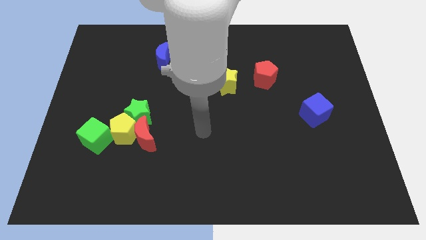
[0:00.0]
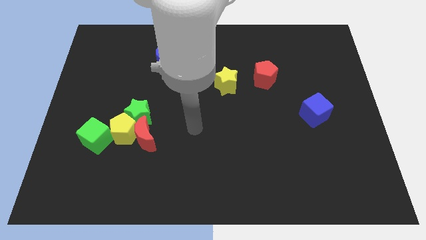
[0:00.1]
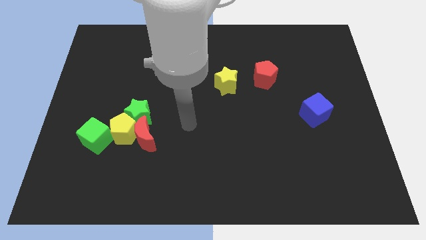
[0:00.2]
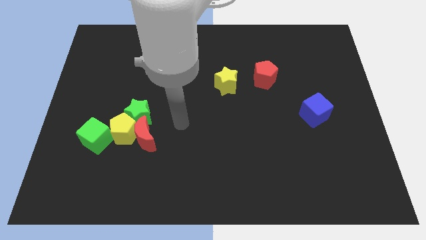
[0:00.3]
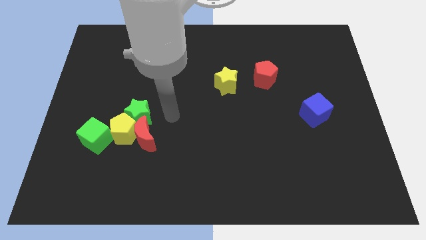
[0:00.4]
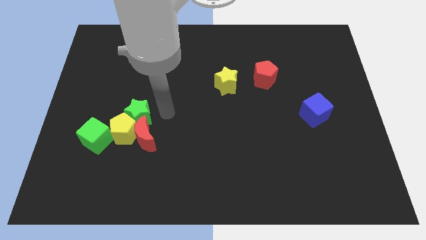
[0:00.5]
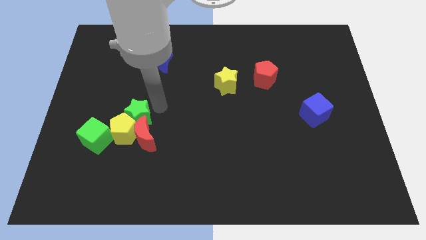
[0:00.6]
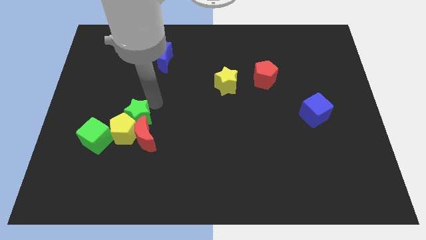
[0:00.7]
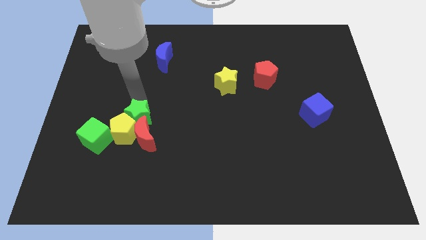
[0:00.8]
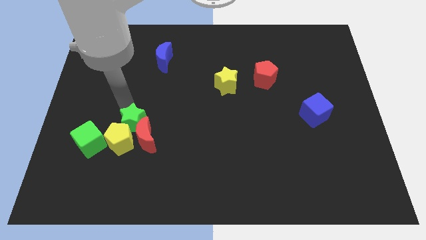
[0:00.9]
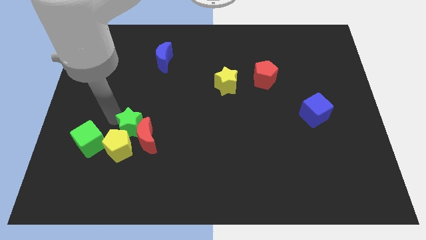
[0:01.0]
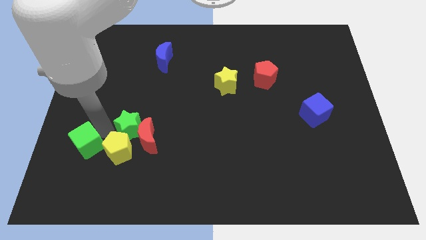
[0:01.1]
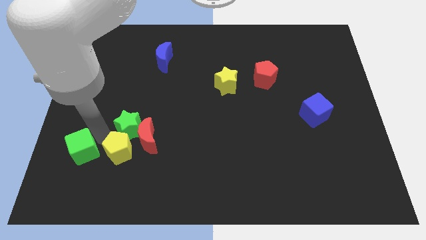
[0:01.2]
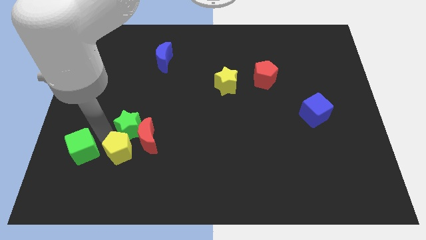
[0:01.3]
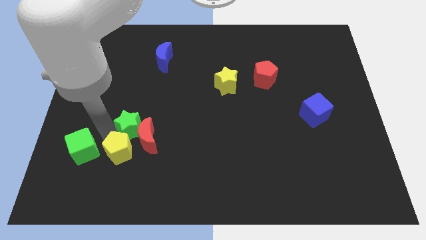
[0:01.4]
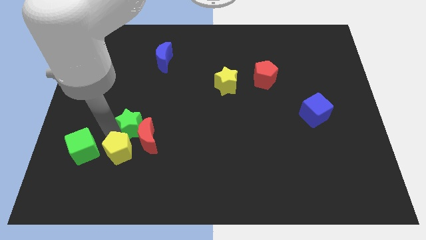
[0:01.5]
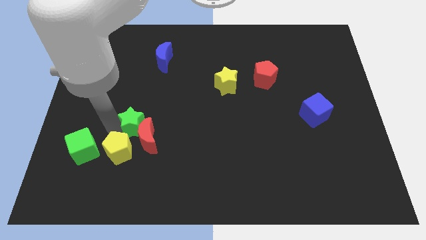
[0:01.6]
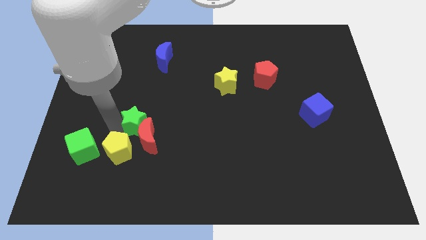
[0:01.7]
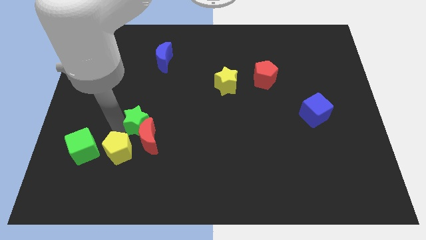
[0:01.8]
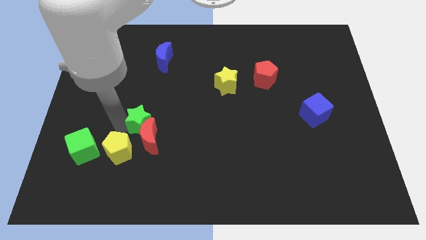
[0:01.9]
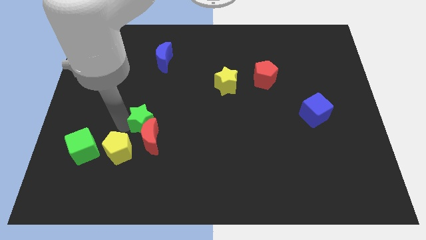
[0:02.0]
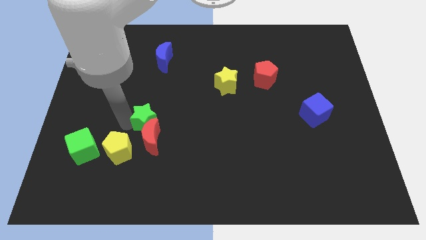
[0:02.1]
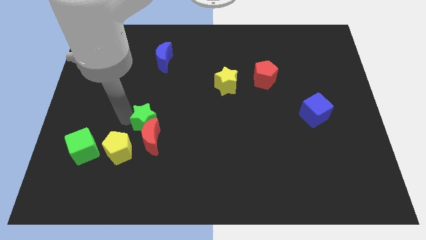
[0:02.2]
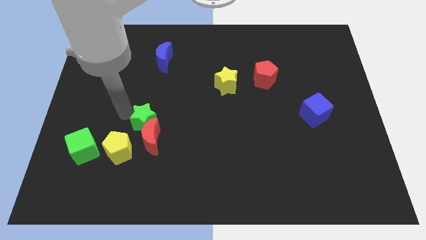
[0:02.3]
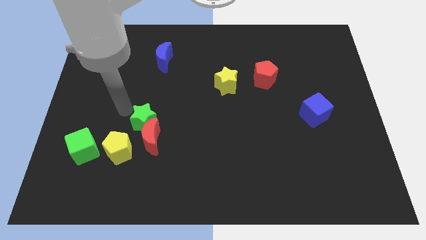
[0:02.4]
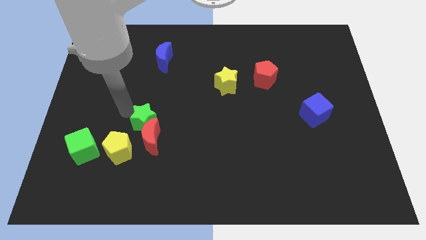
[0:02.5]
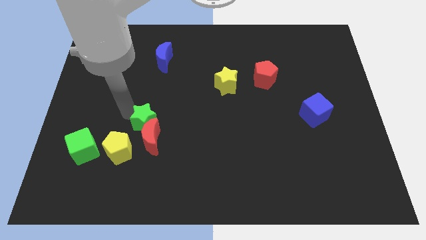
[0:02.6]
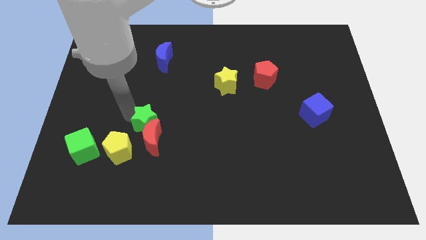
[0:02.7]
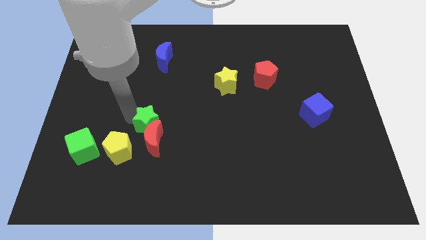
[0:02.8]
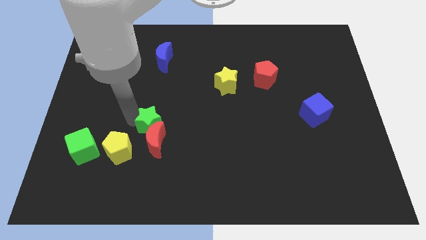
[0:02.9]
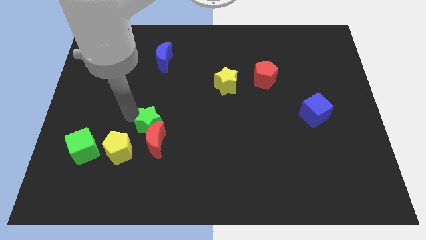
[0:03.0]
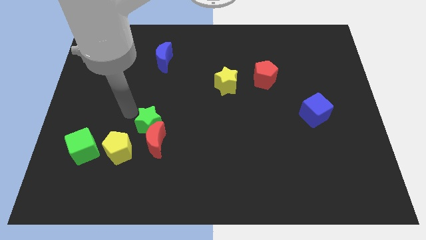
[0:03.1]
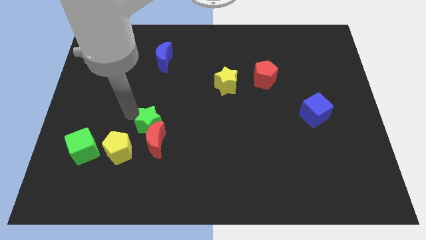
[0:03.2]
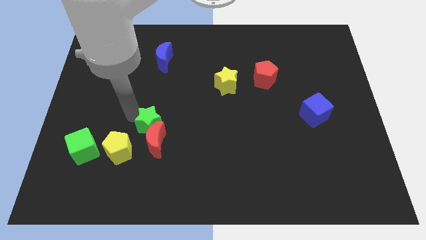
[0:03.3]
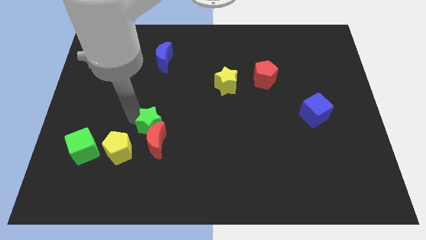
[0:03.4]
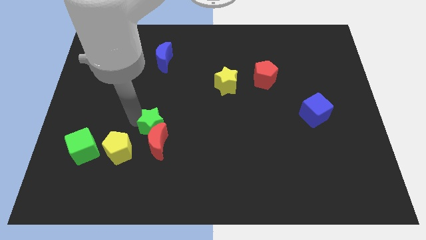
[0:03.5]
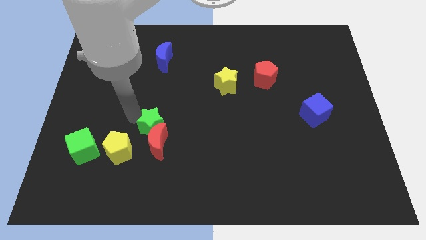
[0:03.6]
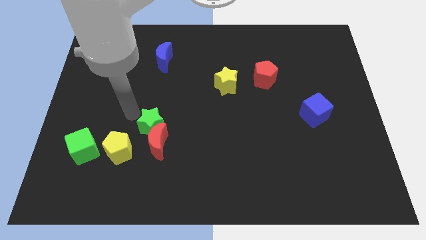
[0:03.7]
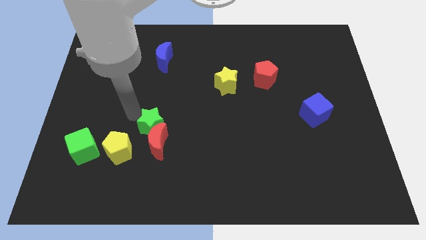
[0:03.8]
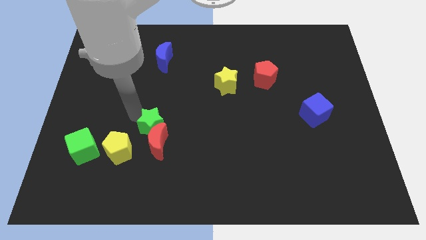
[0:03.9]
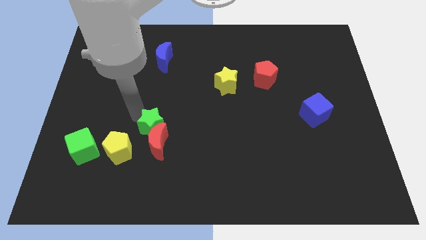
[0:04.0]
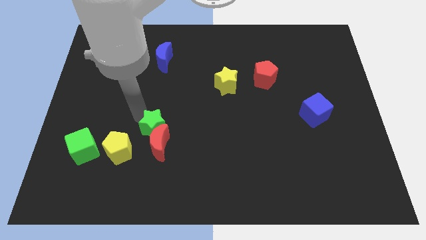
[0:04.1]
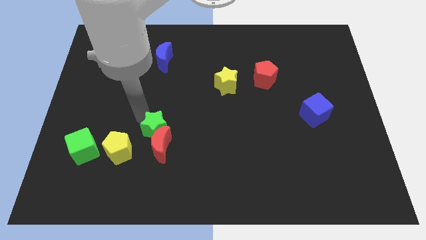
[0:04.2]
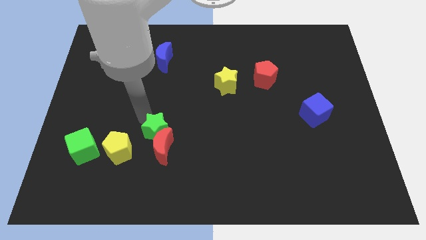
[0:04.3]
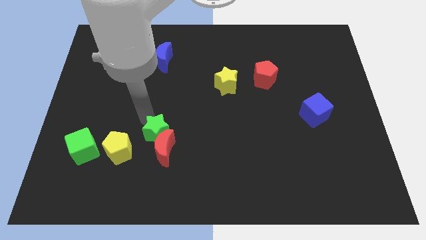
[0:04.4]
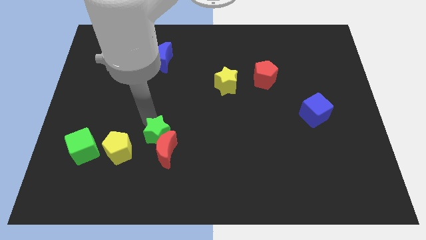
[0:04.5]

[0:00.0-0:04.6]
push the green star slightly diagonally down and to the right

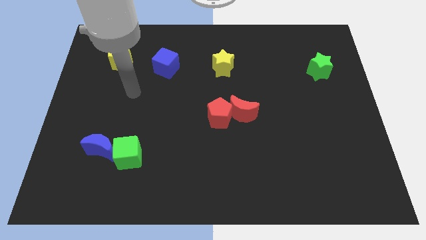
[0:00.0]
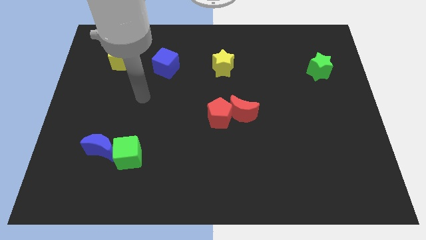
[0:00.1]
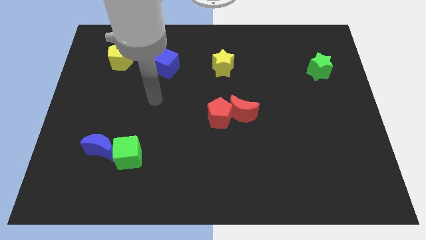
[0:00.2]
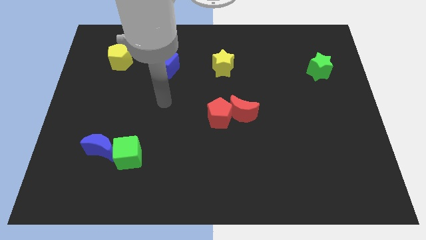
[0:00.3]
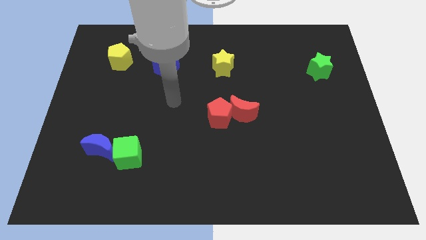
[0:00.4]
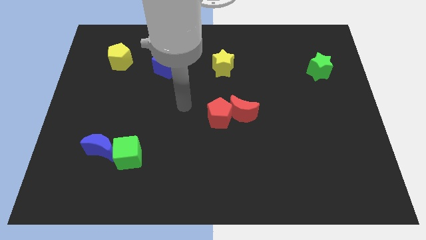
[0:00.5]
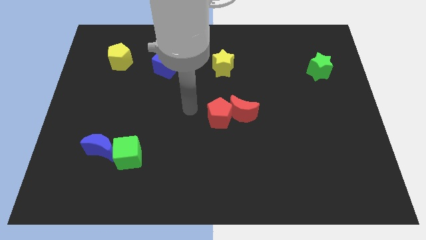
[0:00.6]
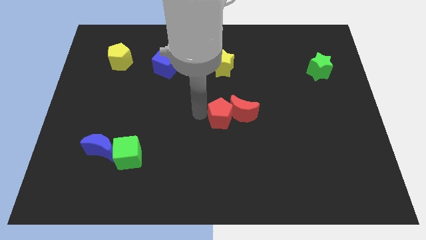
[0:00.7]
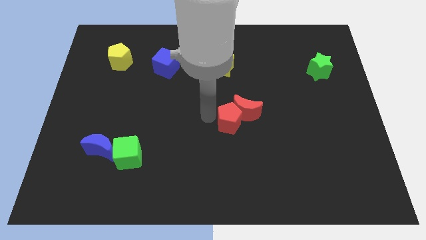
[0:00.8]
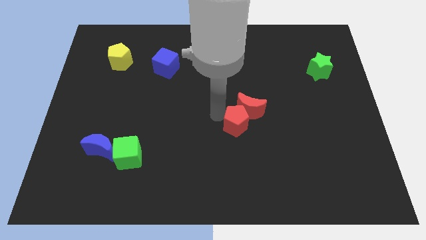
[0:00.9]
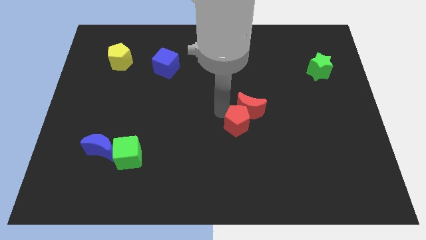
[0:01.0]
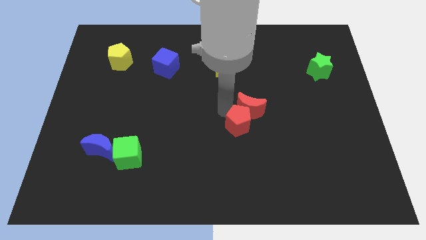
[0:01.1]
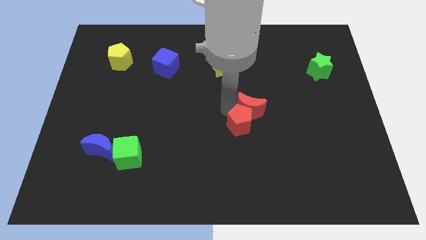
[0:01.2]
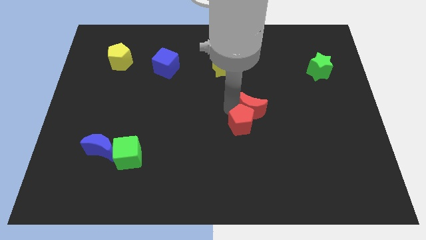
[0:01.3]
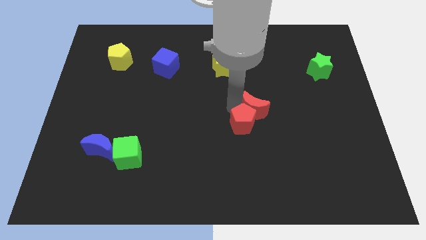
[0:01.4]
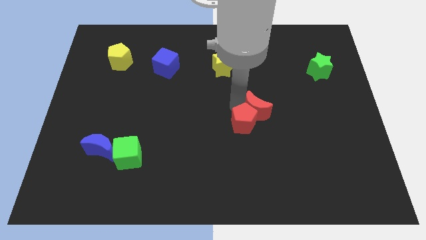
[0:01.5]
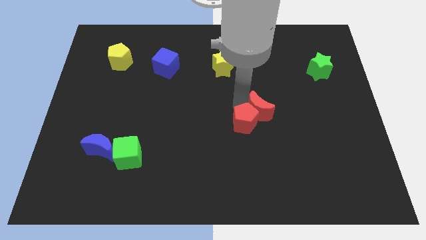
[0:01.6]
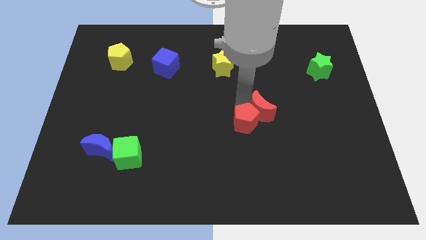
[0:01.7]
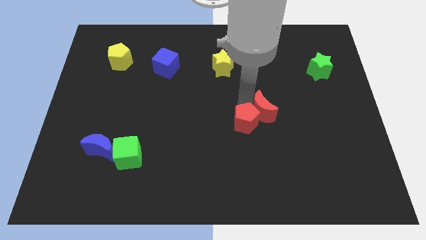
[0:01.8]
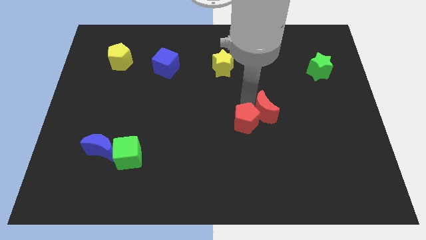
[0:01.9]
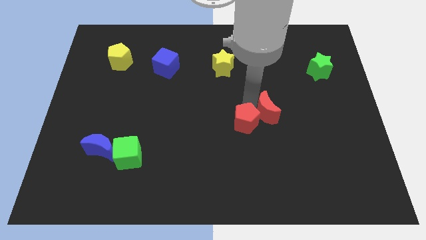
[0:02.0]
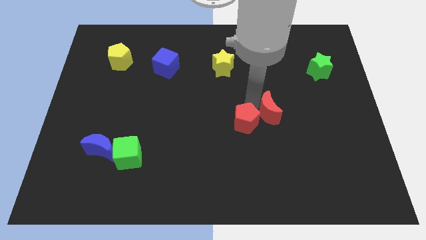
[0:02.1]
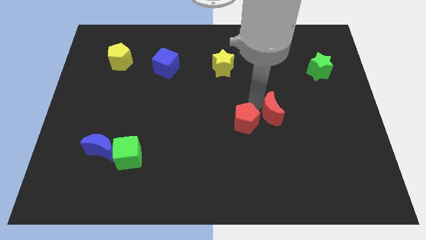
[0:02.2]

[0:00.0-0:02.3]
slightly push the red moon right

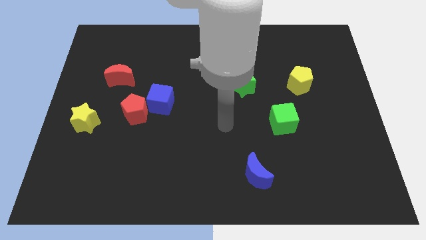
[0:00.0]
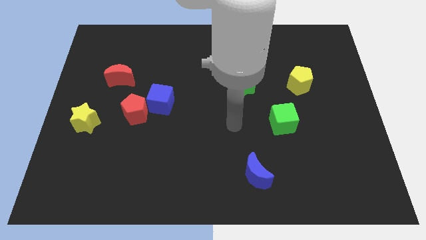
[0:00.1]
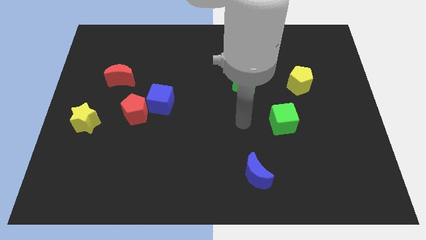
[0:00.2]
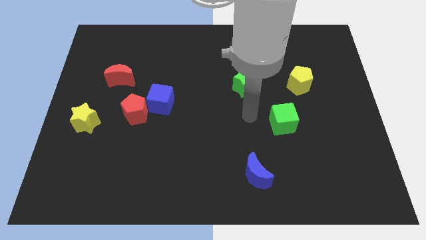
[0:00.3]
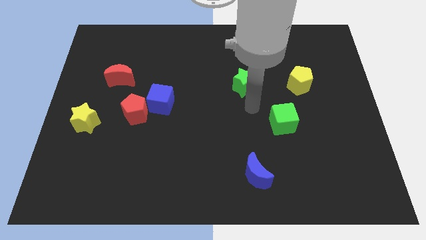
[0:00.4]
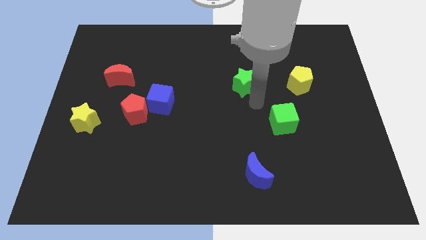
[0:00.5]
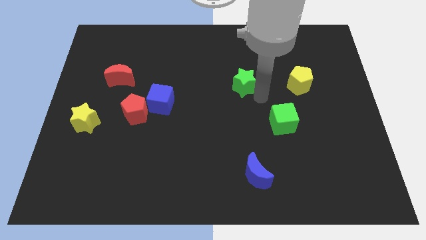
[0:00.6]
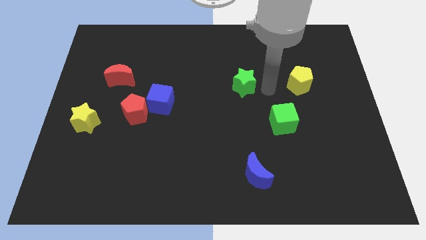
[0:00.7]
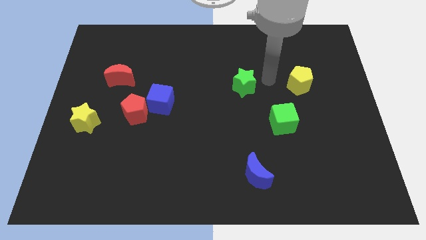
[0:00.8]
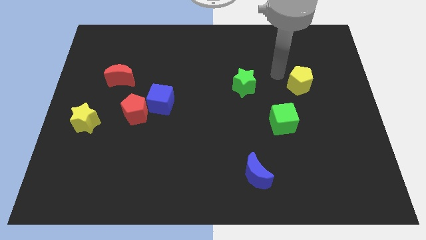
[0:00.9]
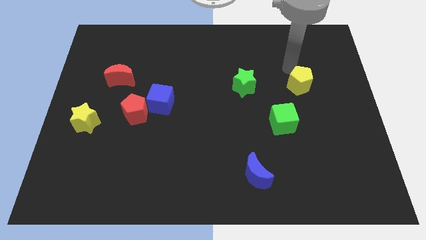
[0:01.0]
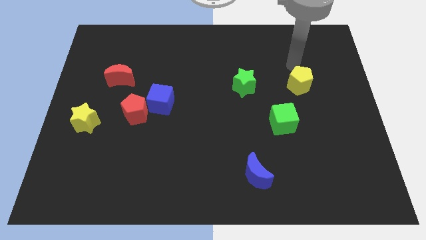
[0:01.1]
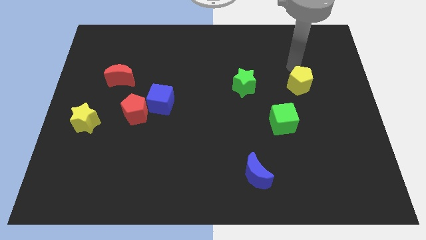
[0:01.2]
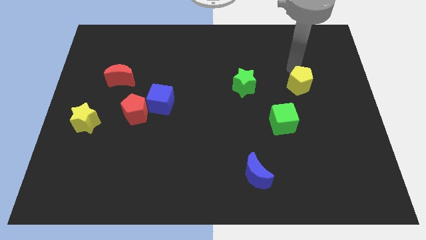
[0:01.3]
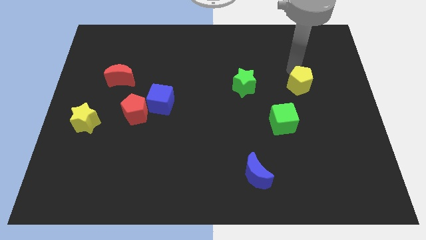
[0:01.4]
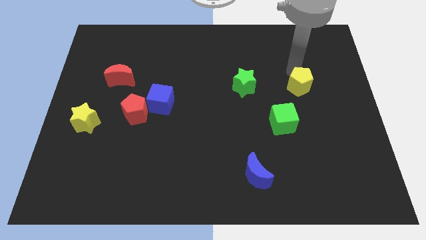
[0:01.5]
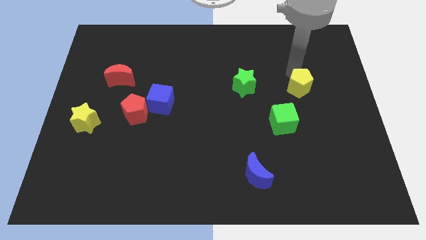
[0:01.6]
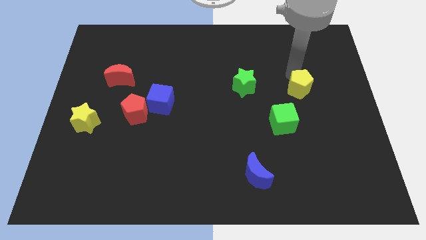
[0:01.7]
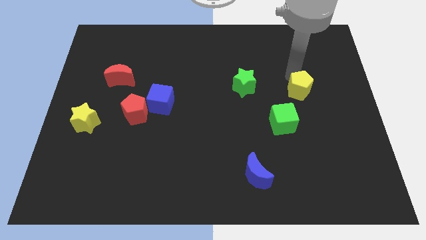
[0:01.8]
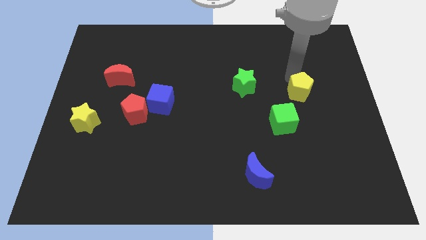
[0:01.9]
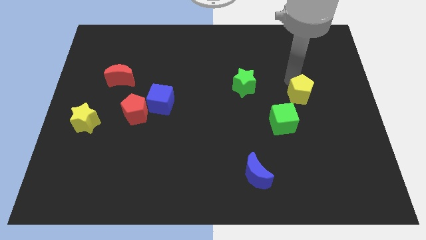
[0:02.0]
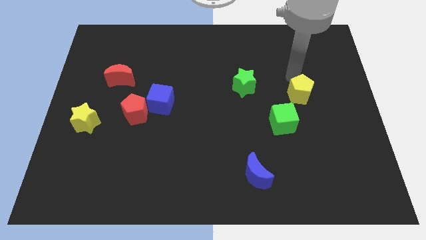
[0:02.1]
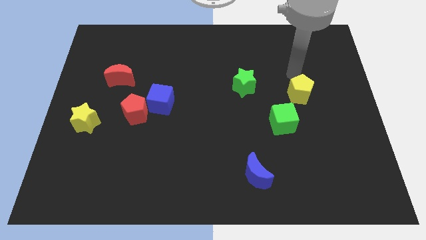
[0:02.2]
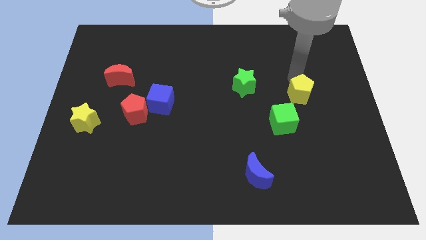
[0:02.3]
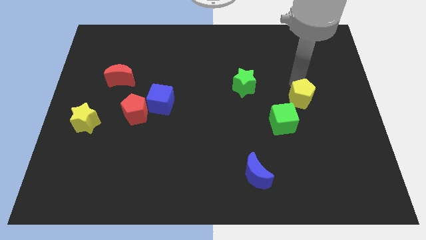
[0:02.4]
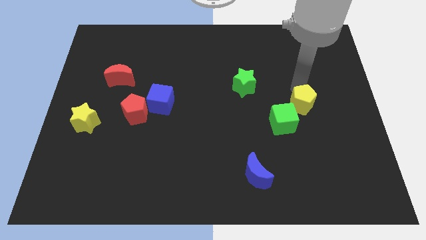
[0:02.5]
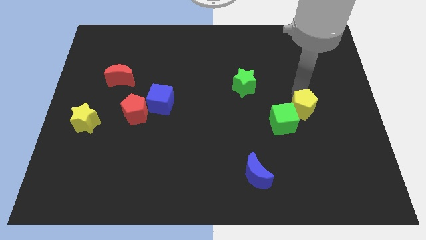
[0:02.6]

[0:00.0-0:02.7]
push the yellow pentagon down a little bit
